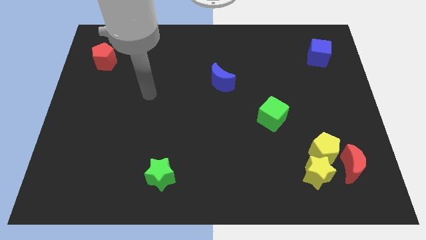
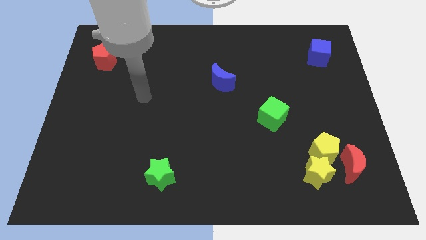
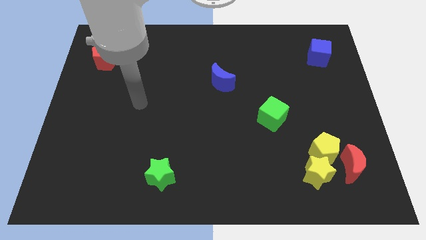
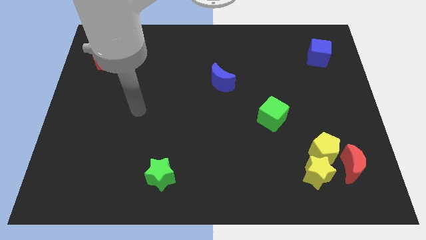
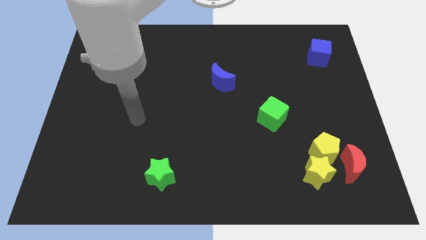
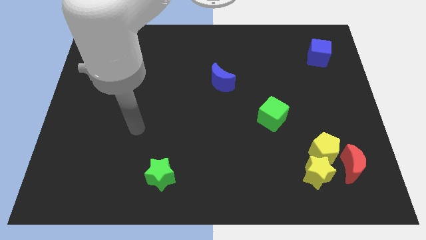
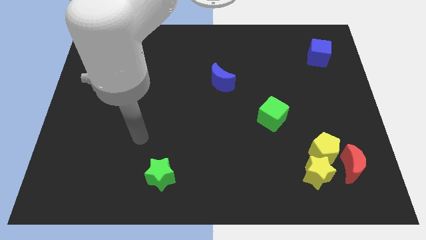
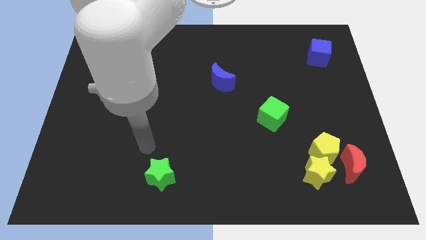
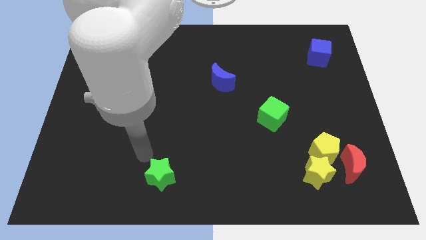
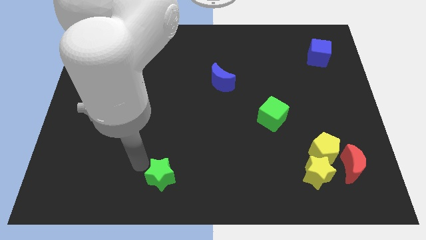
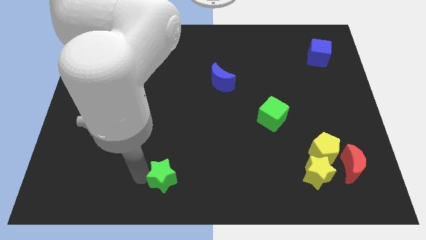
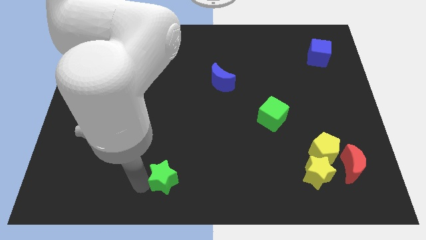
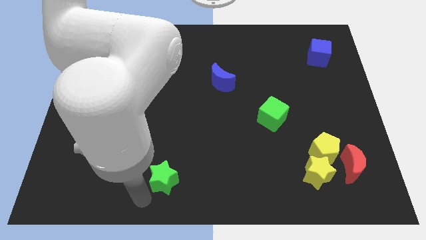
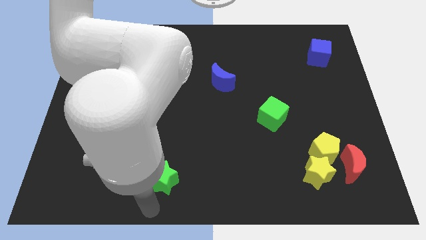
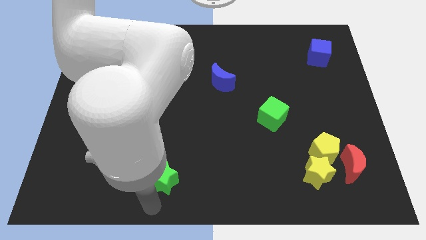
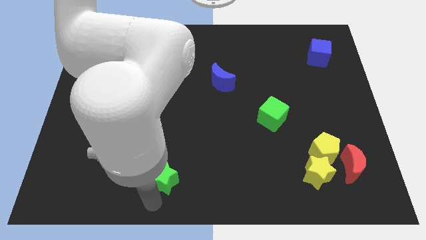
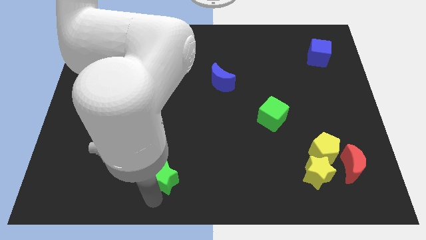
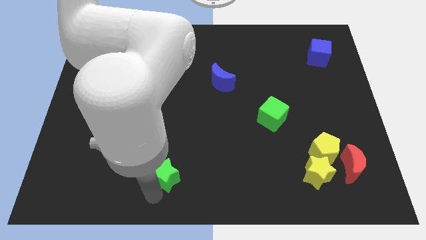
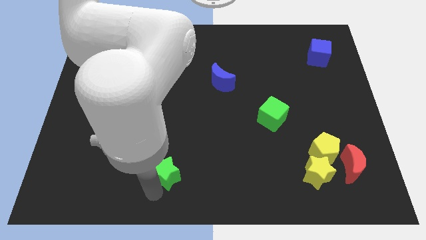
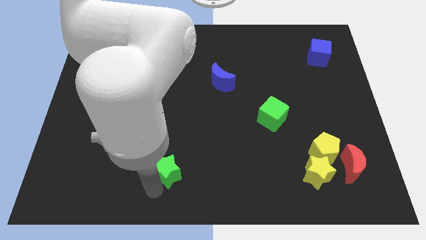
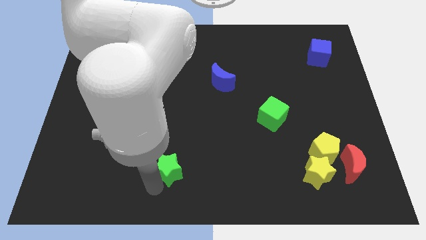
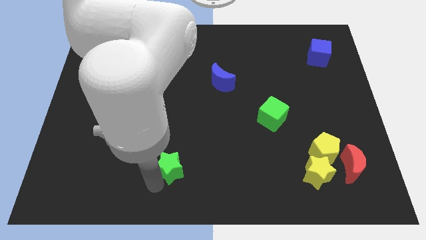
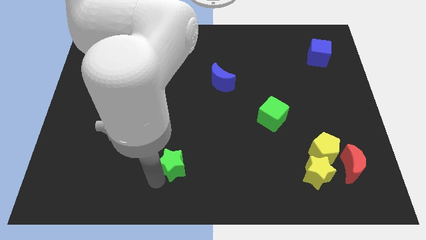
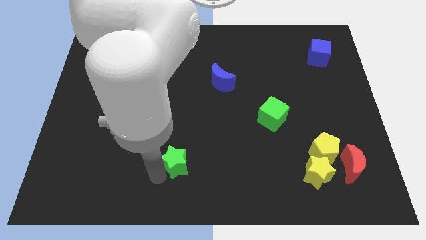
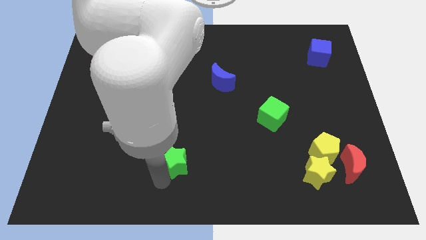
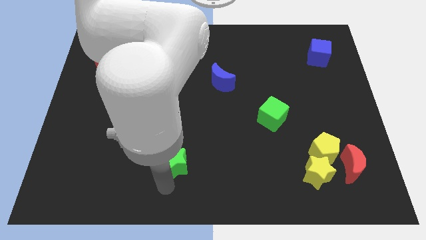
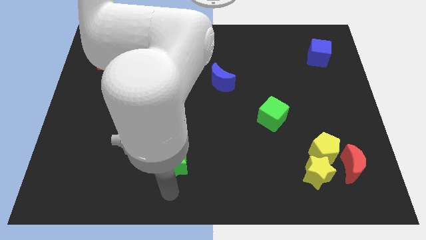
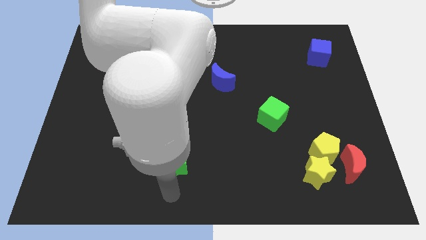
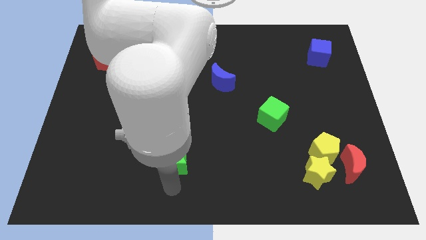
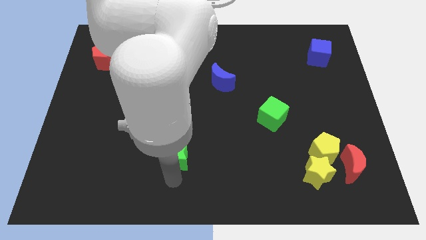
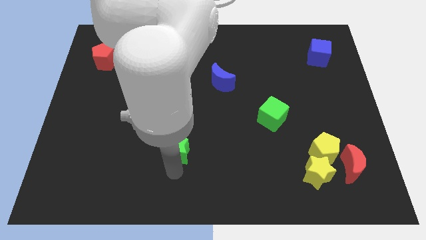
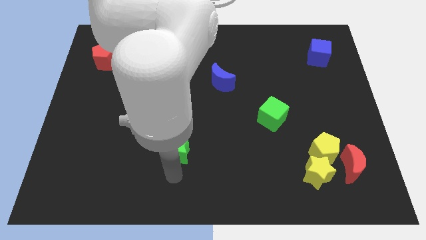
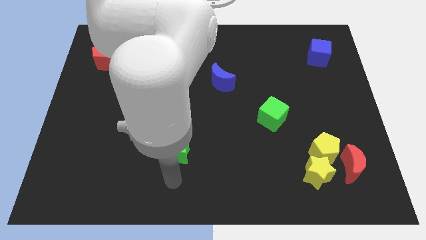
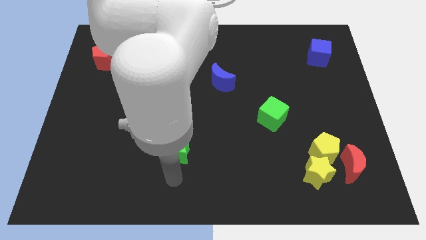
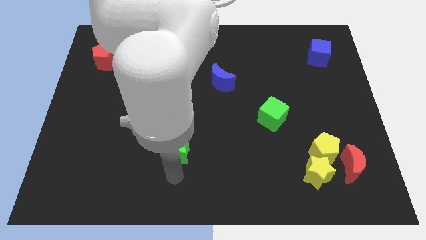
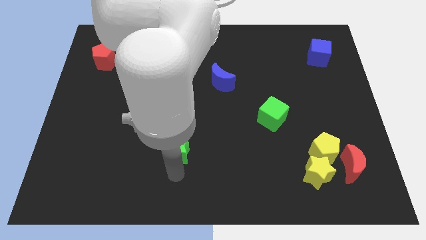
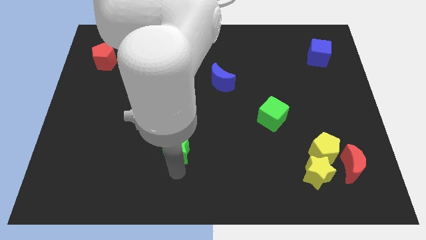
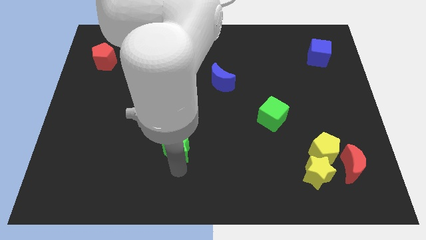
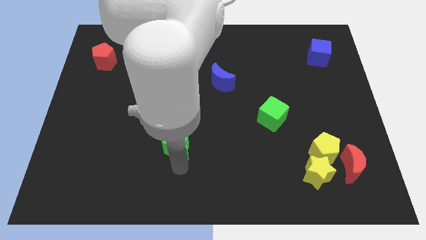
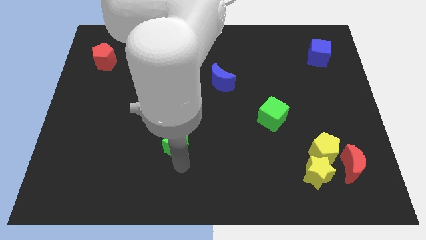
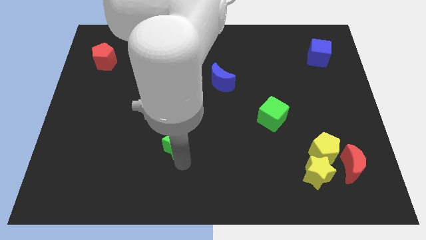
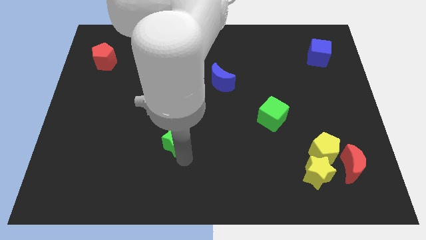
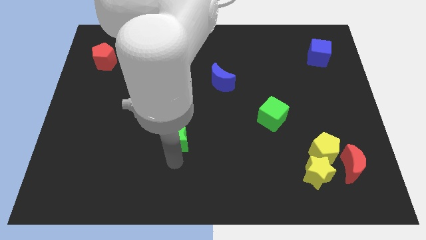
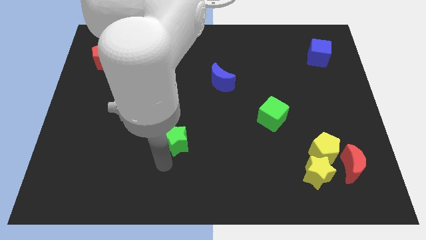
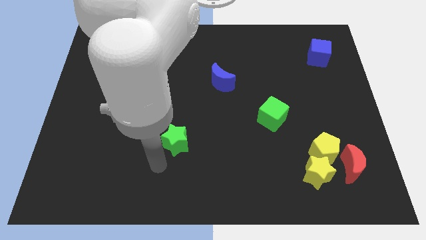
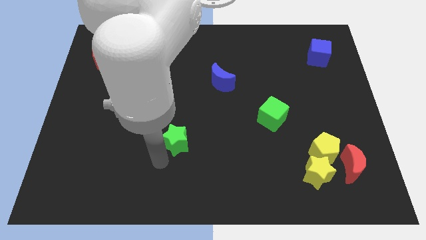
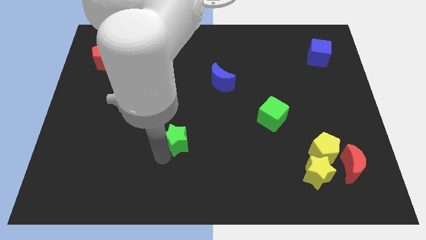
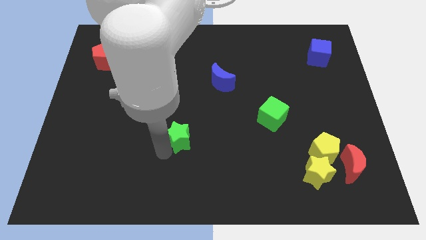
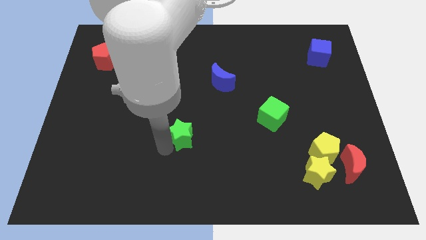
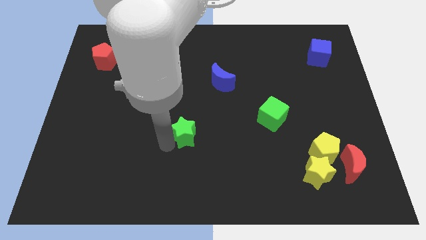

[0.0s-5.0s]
move the green star to the middle of the board

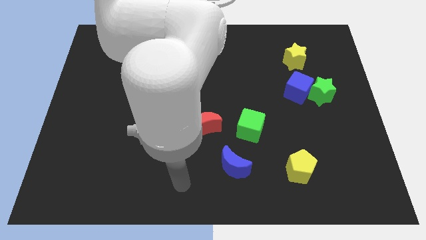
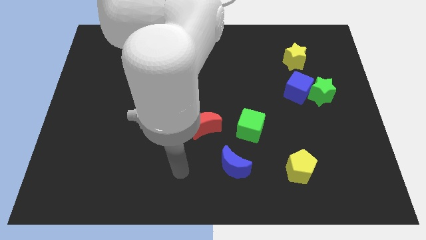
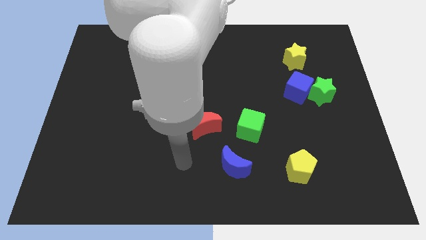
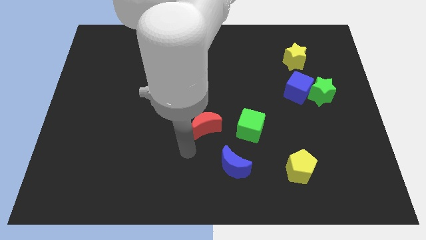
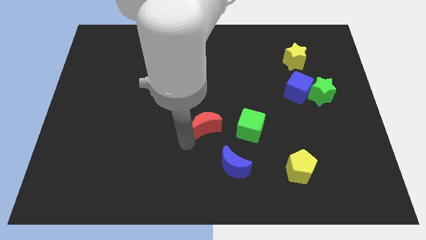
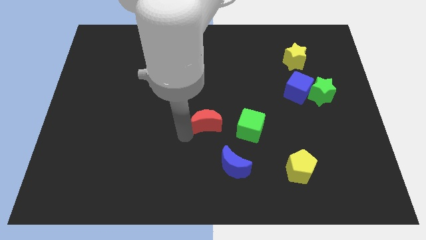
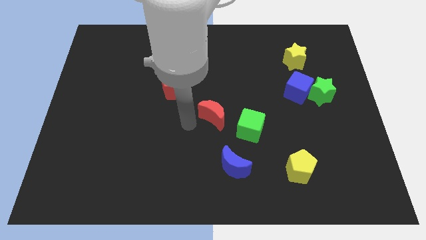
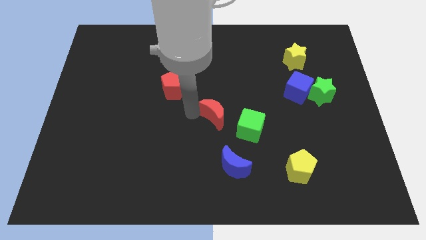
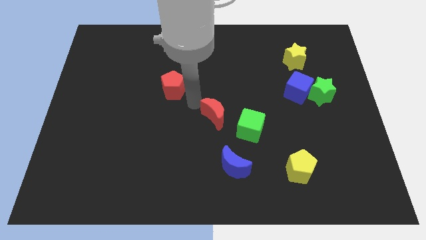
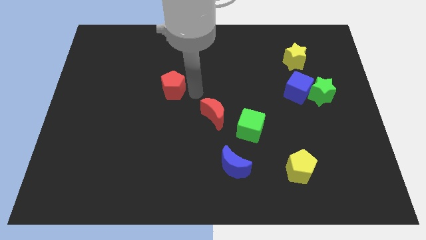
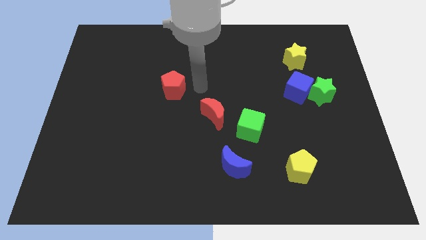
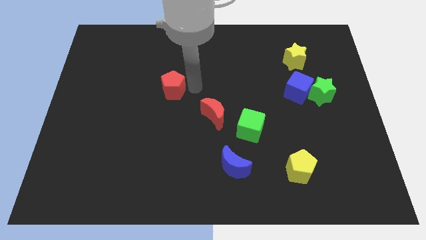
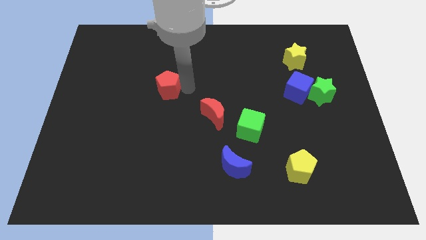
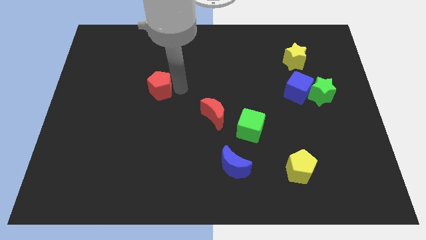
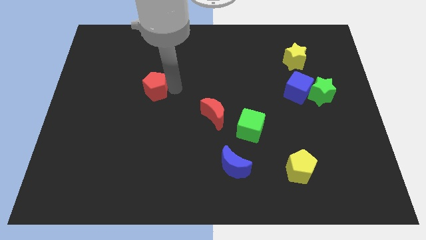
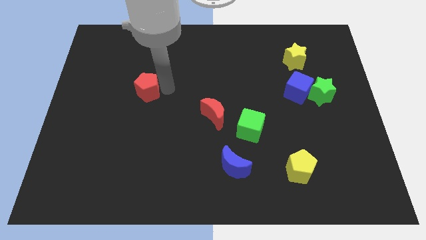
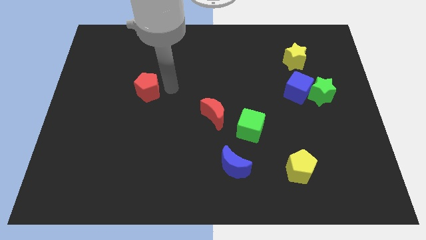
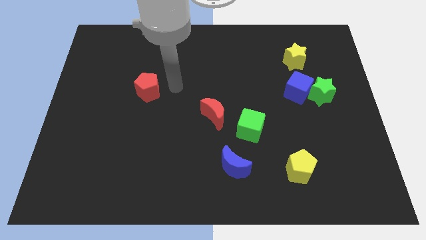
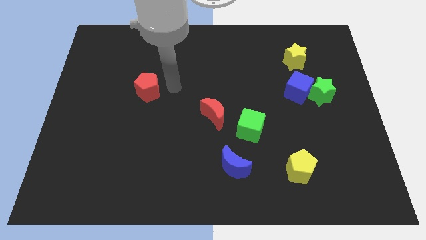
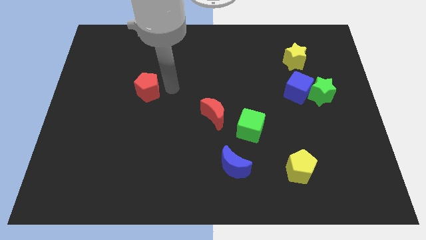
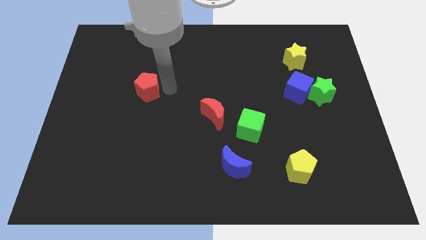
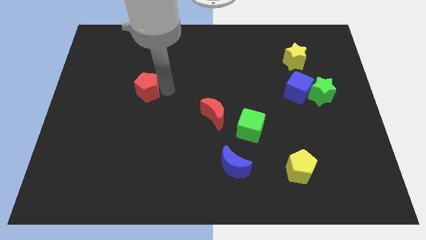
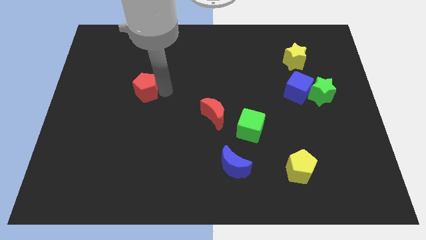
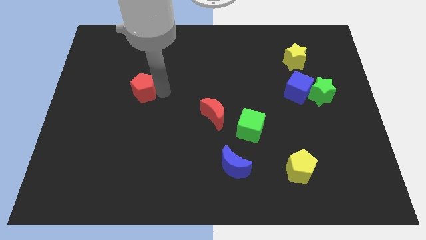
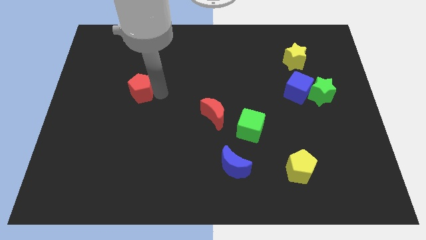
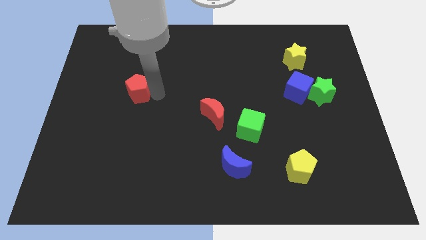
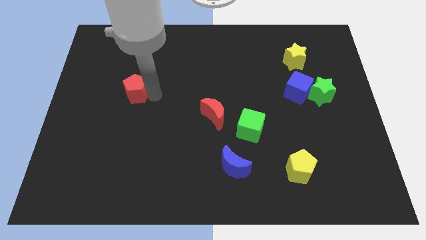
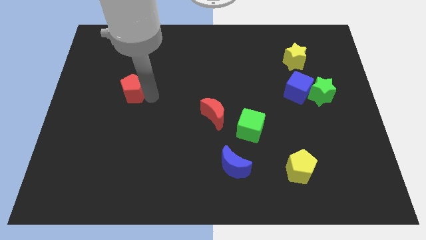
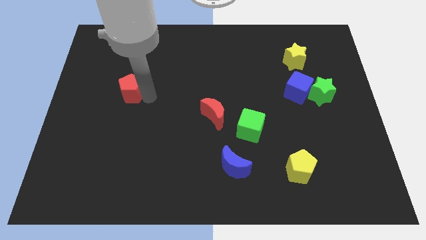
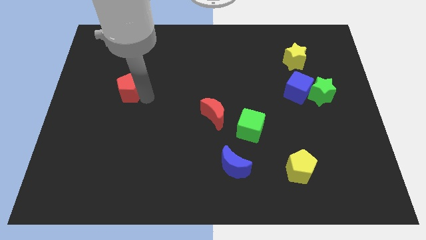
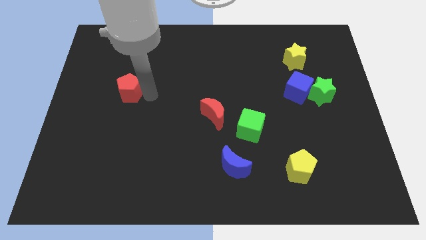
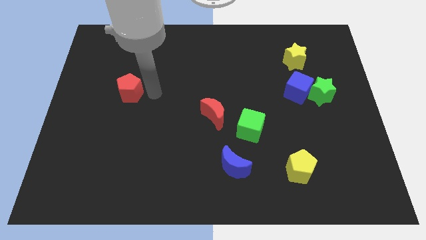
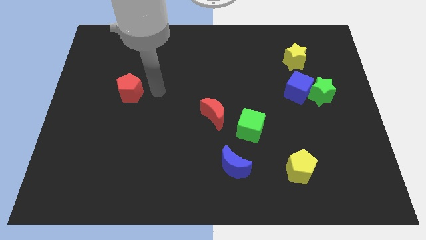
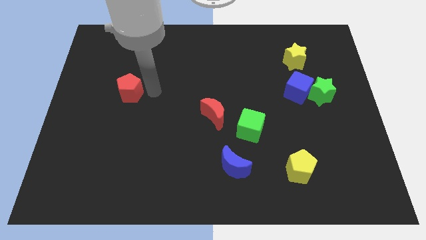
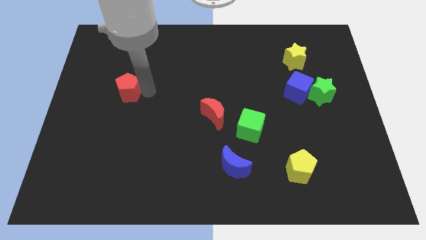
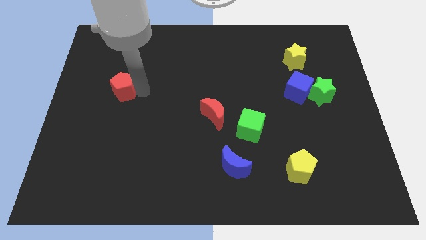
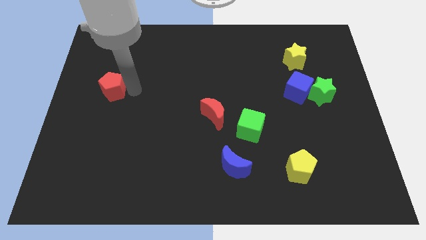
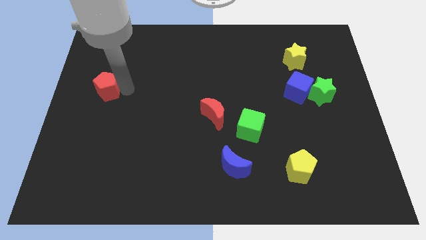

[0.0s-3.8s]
put the red pentagon to the center left
